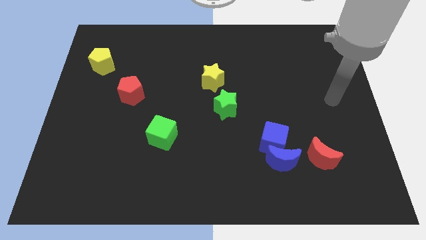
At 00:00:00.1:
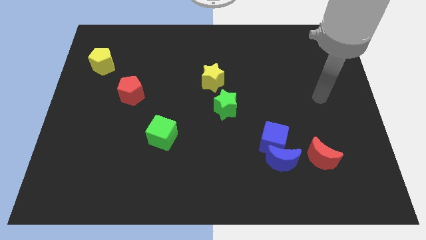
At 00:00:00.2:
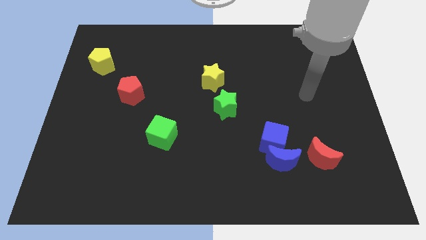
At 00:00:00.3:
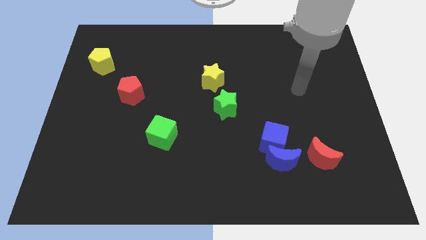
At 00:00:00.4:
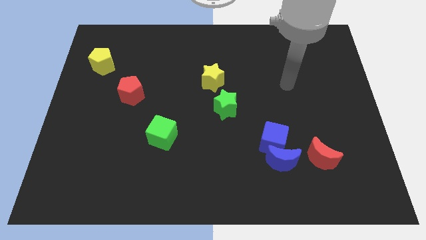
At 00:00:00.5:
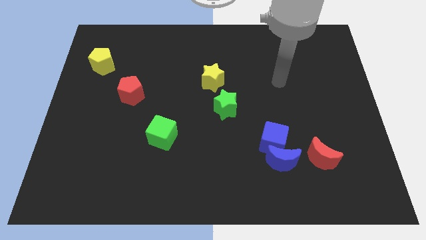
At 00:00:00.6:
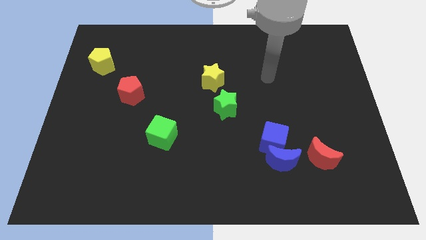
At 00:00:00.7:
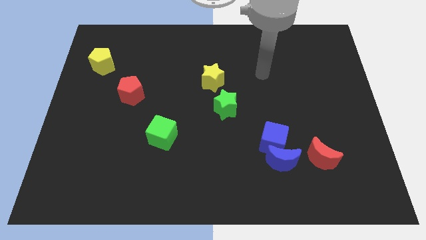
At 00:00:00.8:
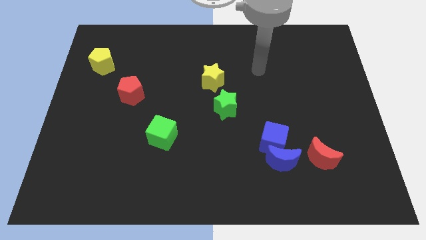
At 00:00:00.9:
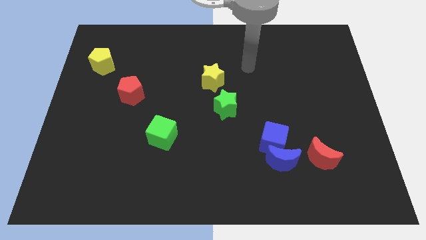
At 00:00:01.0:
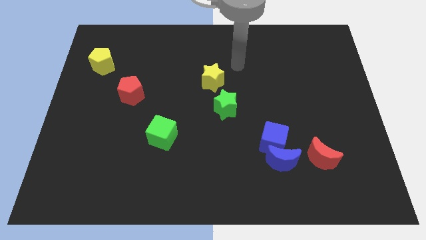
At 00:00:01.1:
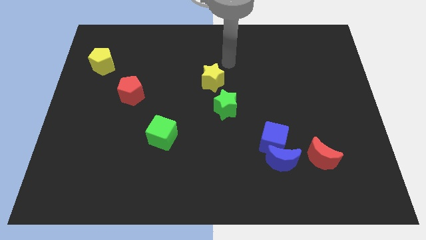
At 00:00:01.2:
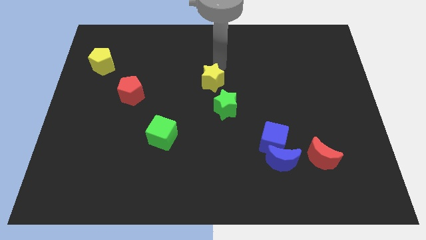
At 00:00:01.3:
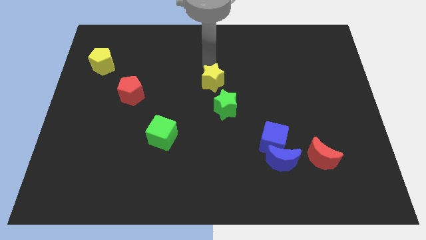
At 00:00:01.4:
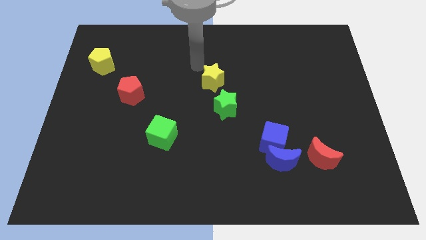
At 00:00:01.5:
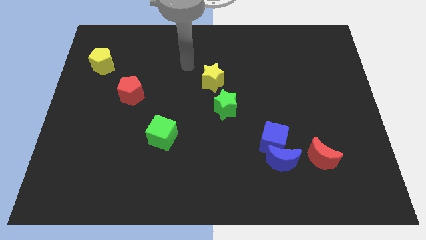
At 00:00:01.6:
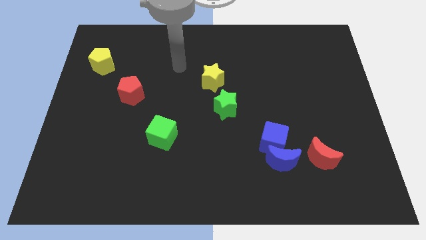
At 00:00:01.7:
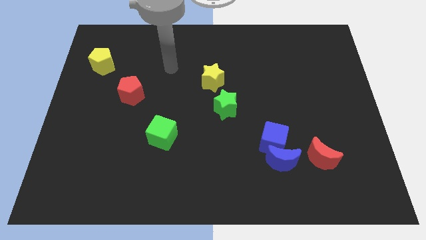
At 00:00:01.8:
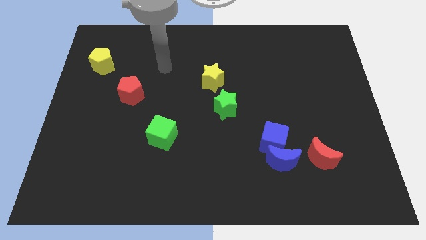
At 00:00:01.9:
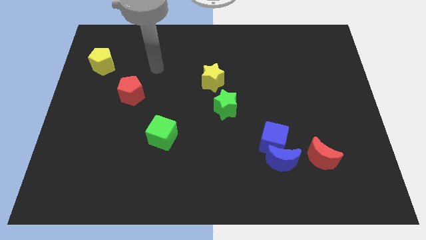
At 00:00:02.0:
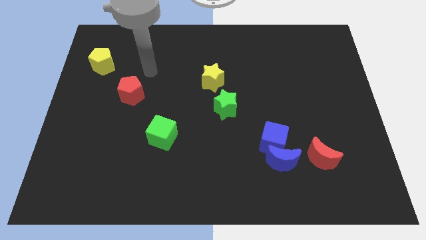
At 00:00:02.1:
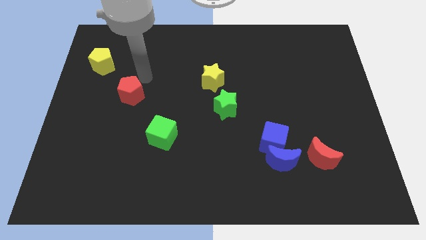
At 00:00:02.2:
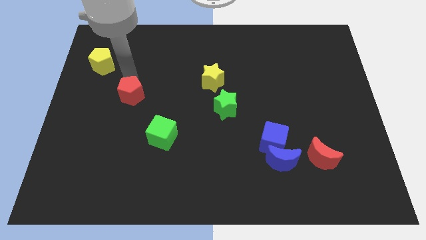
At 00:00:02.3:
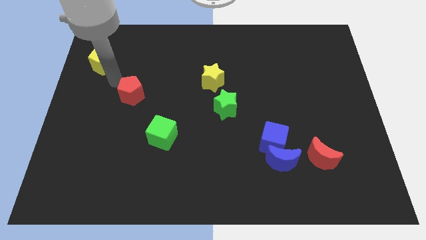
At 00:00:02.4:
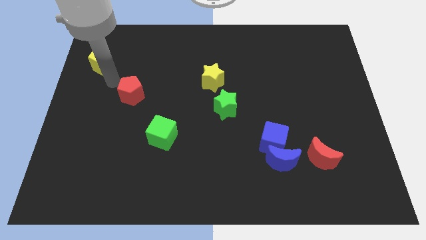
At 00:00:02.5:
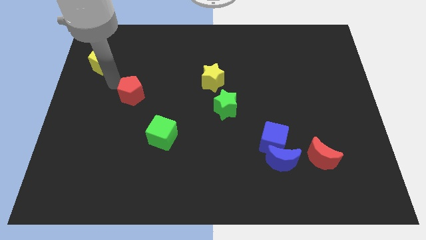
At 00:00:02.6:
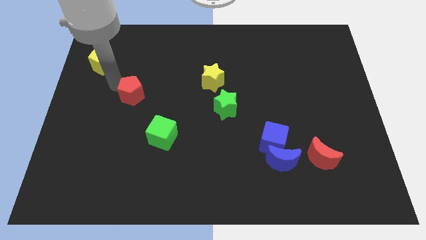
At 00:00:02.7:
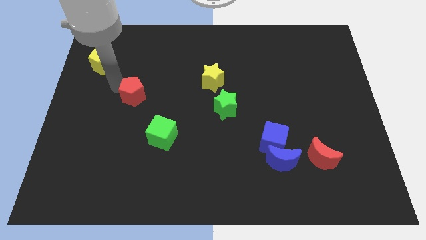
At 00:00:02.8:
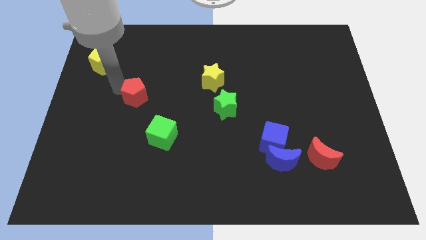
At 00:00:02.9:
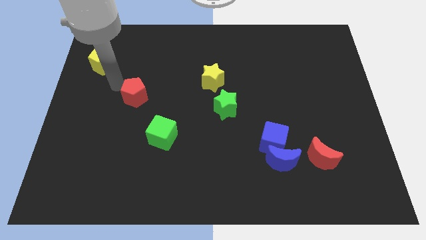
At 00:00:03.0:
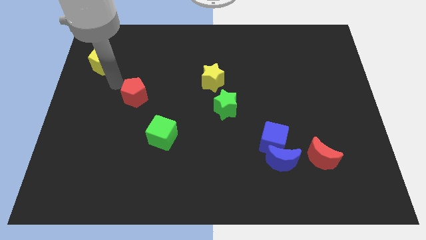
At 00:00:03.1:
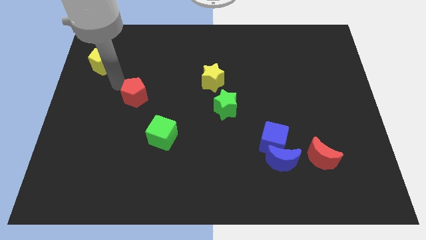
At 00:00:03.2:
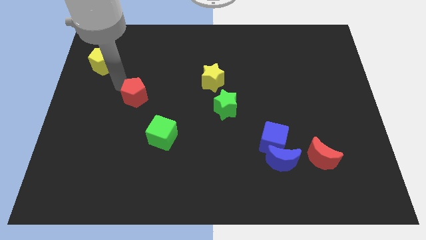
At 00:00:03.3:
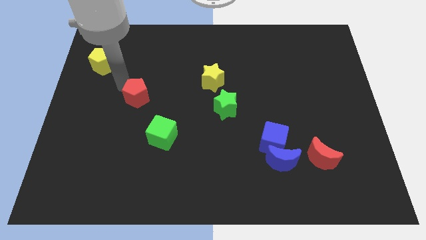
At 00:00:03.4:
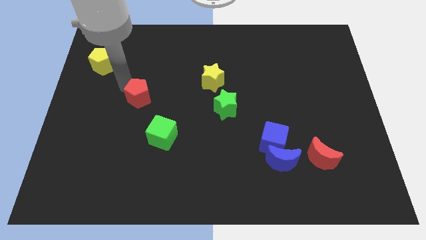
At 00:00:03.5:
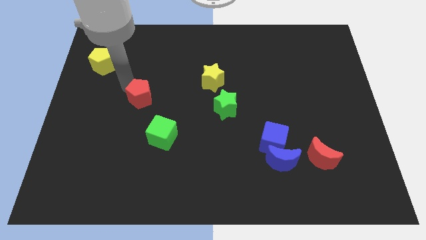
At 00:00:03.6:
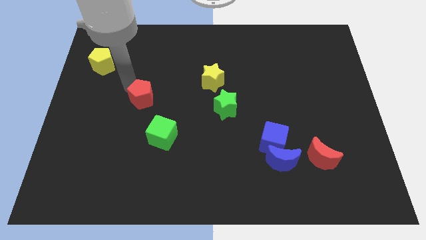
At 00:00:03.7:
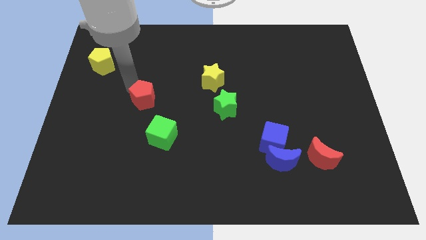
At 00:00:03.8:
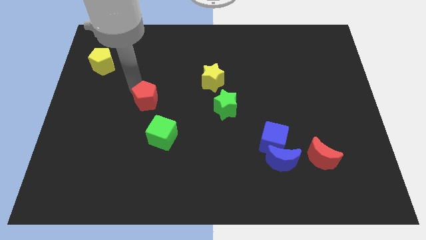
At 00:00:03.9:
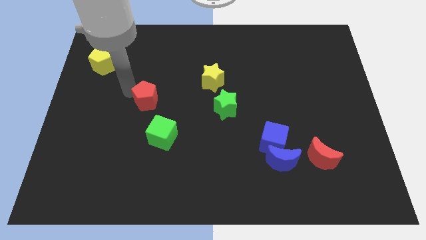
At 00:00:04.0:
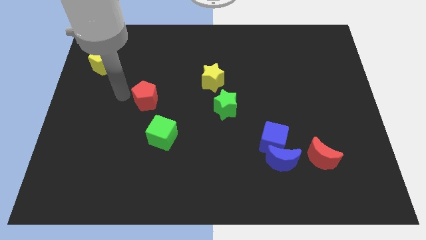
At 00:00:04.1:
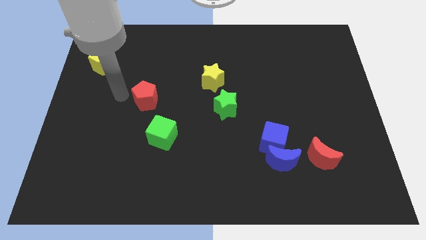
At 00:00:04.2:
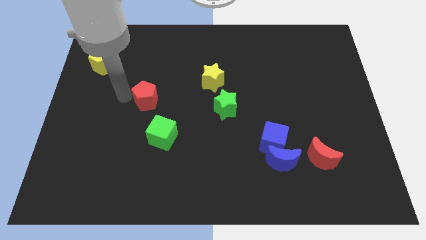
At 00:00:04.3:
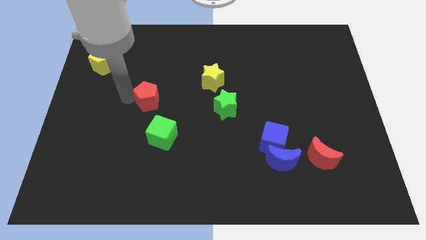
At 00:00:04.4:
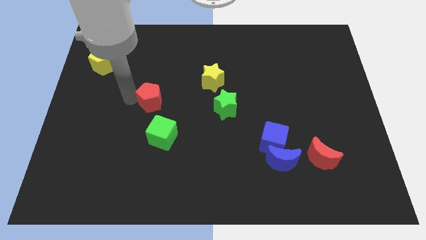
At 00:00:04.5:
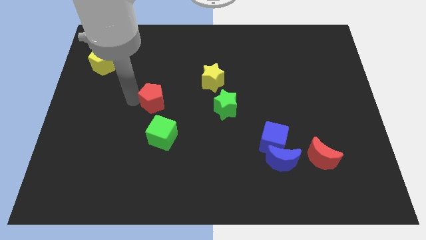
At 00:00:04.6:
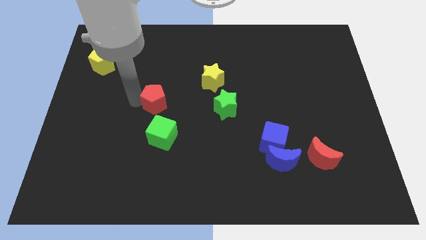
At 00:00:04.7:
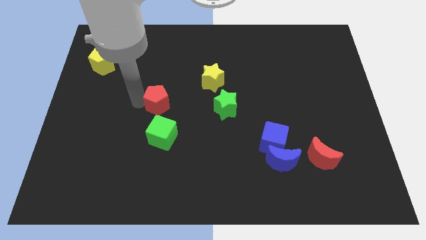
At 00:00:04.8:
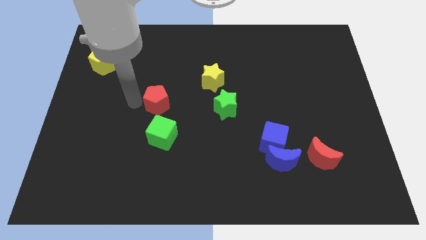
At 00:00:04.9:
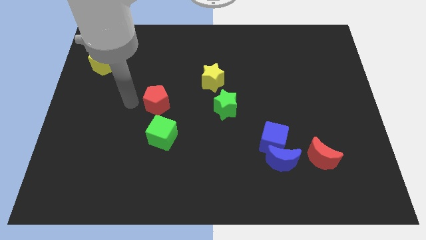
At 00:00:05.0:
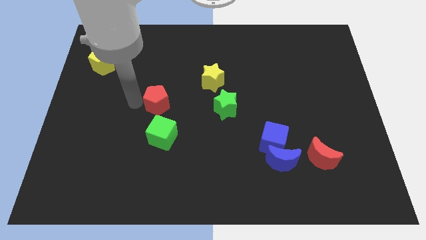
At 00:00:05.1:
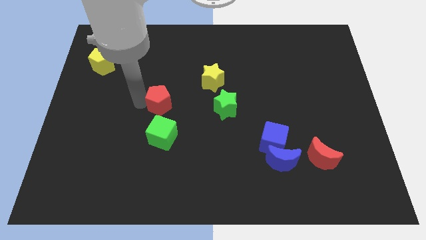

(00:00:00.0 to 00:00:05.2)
slide the red pentagon to the right somewhat

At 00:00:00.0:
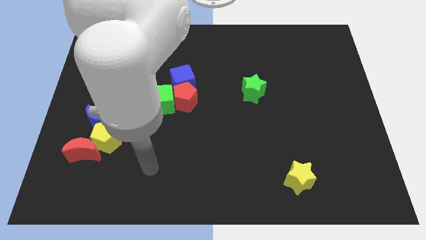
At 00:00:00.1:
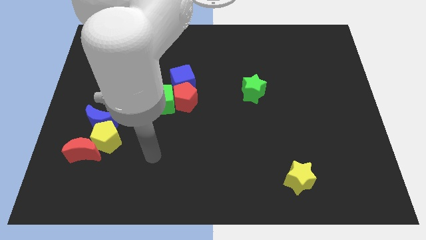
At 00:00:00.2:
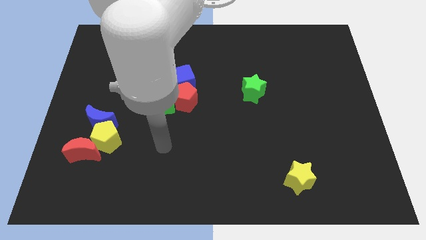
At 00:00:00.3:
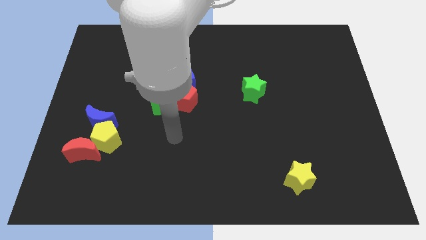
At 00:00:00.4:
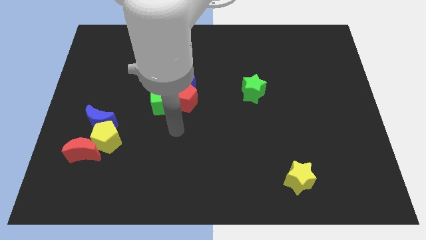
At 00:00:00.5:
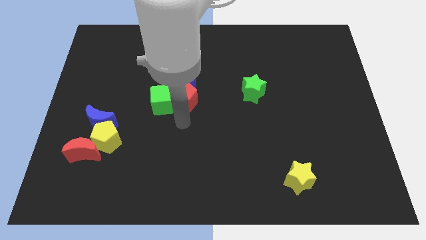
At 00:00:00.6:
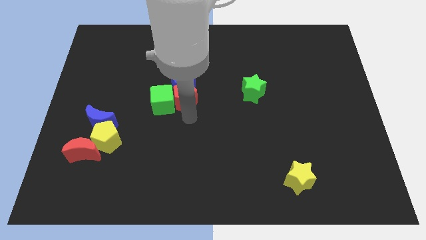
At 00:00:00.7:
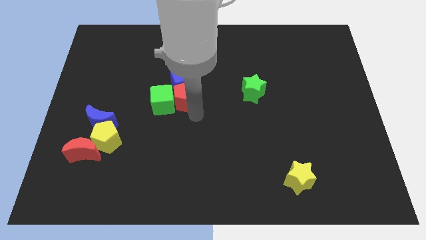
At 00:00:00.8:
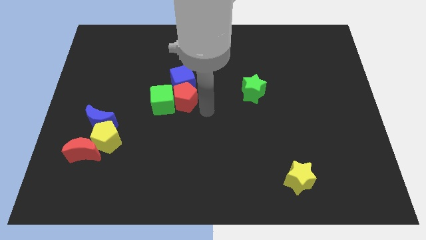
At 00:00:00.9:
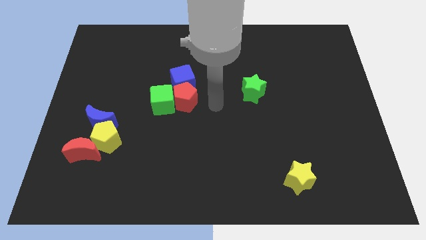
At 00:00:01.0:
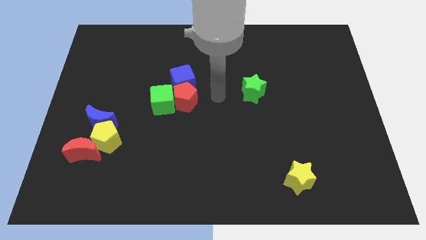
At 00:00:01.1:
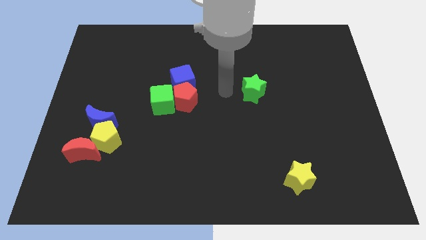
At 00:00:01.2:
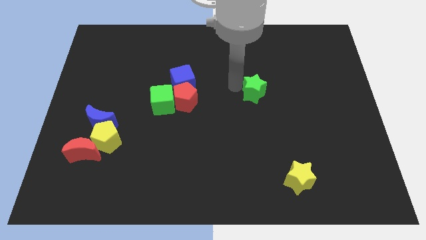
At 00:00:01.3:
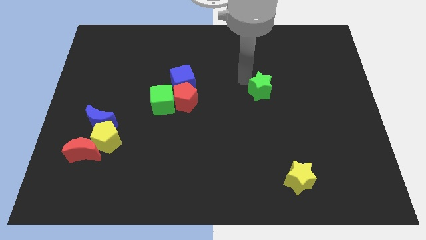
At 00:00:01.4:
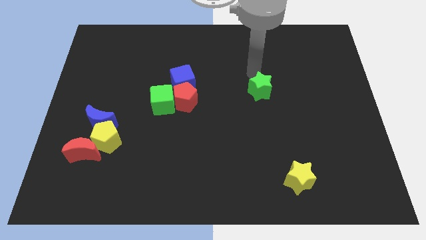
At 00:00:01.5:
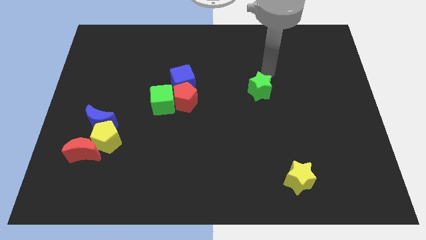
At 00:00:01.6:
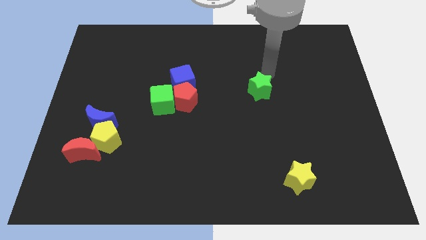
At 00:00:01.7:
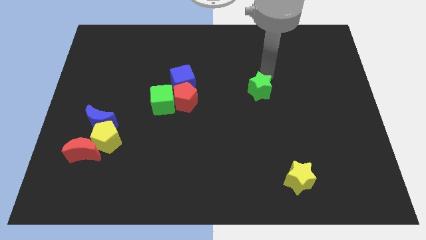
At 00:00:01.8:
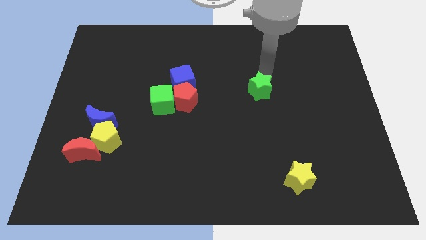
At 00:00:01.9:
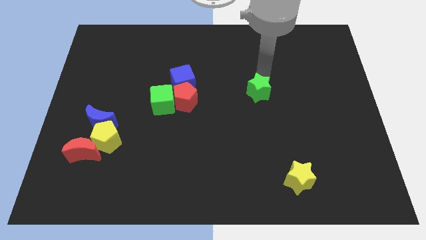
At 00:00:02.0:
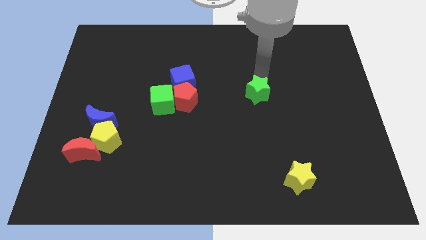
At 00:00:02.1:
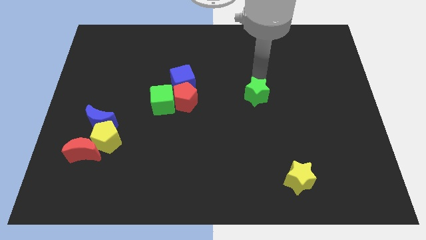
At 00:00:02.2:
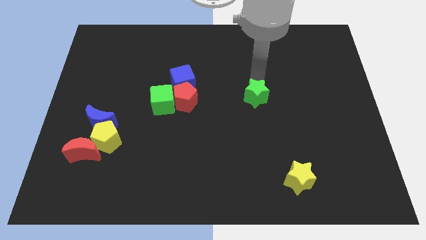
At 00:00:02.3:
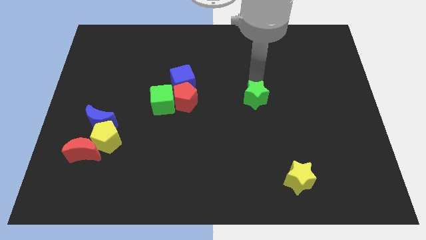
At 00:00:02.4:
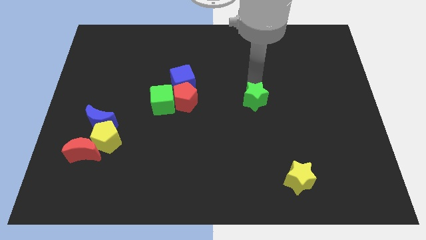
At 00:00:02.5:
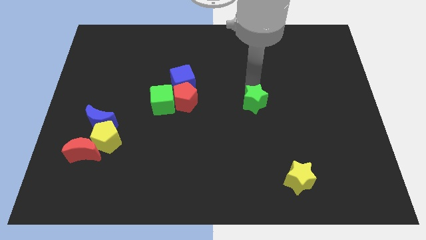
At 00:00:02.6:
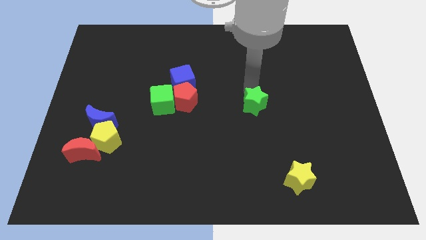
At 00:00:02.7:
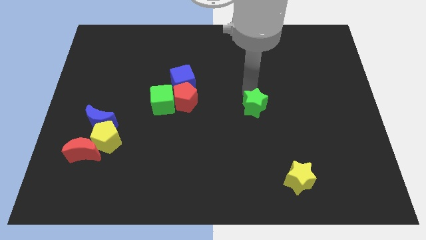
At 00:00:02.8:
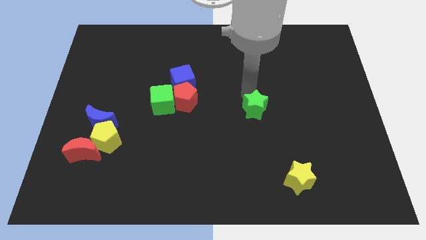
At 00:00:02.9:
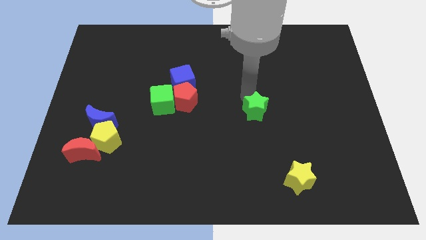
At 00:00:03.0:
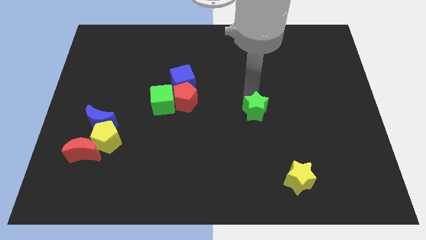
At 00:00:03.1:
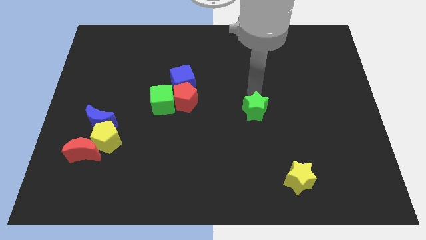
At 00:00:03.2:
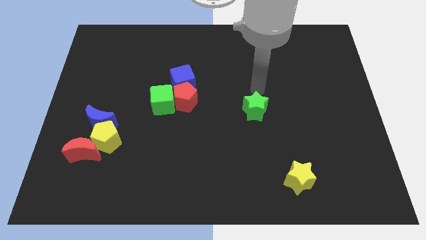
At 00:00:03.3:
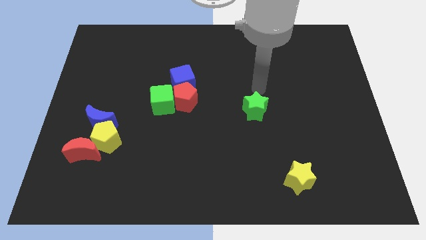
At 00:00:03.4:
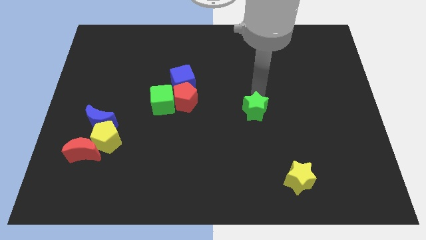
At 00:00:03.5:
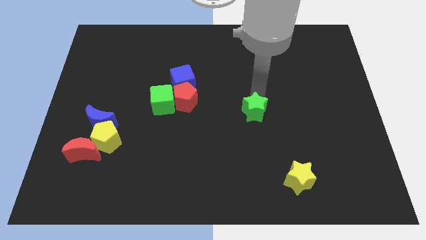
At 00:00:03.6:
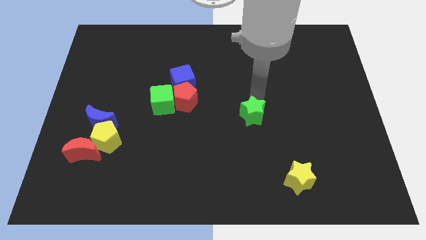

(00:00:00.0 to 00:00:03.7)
push the green star downwards a little
